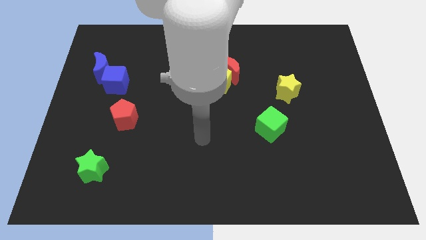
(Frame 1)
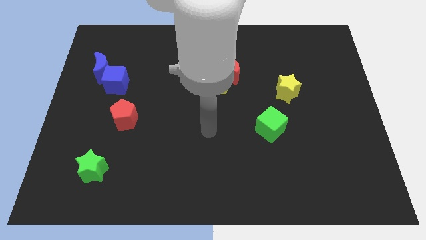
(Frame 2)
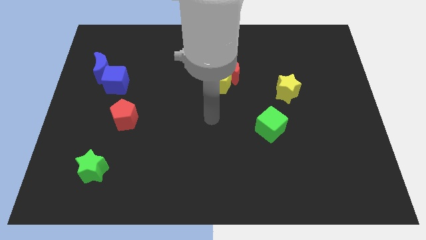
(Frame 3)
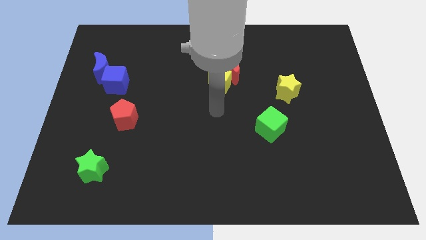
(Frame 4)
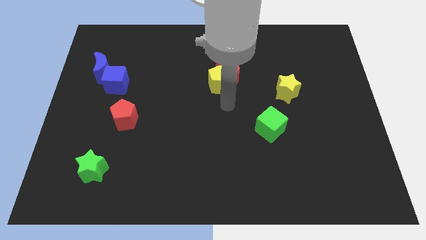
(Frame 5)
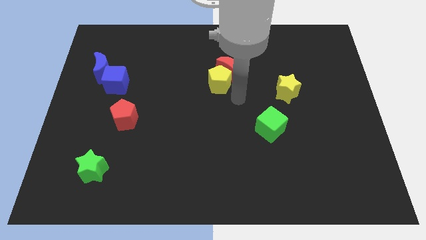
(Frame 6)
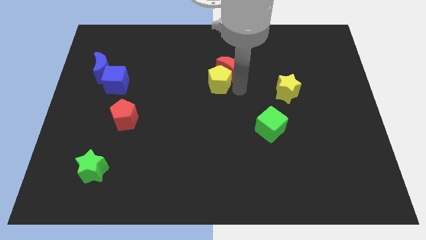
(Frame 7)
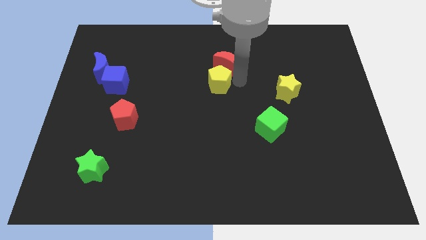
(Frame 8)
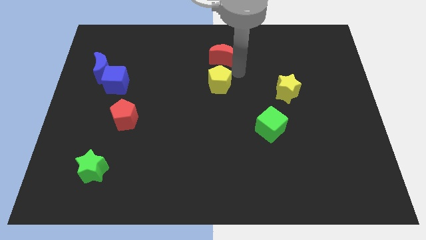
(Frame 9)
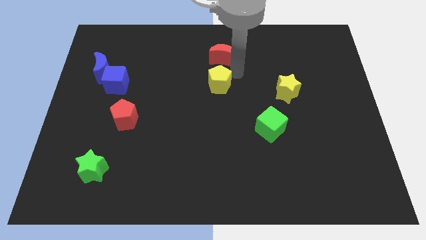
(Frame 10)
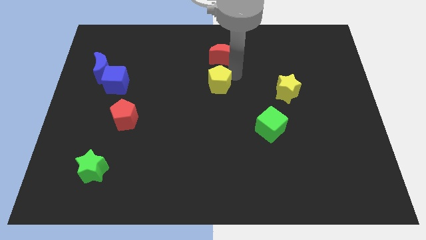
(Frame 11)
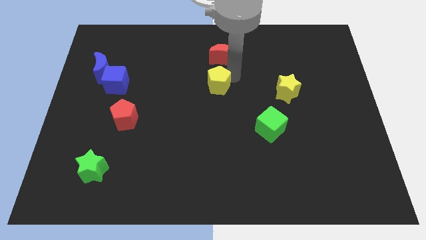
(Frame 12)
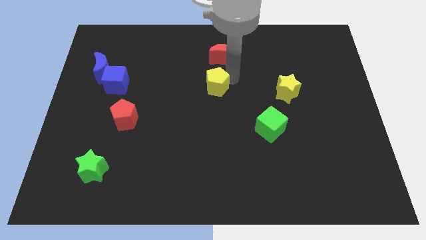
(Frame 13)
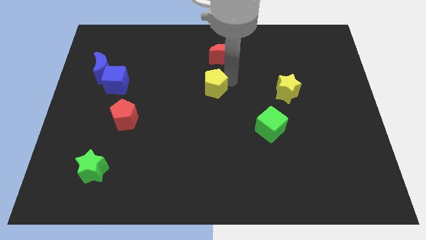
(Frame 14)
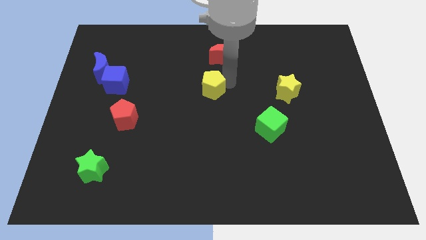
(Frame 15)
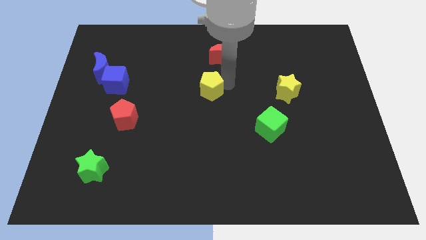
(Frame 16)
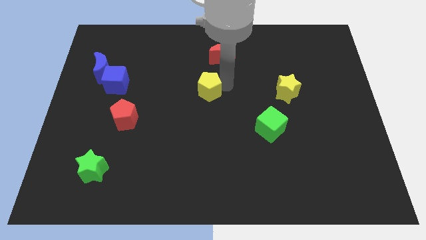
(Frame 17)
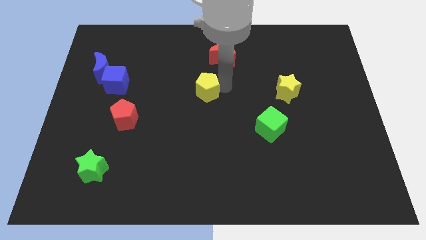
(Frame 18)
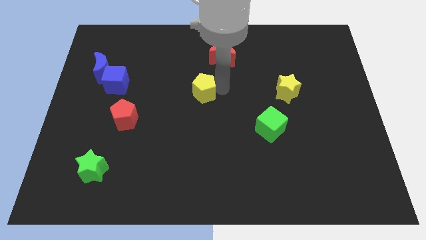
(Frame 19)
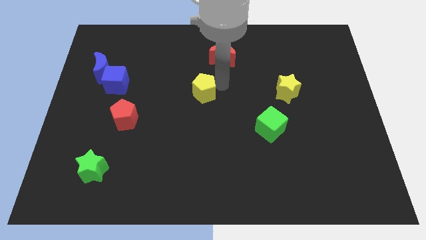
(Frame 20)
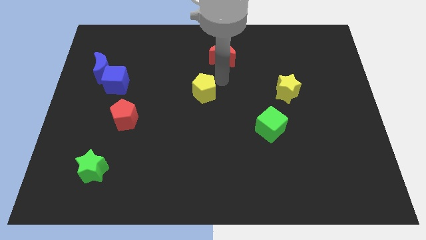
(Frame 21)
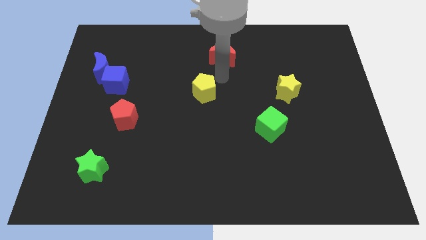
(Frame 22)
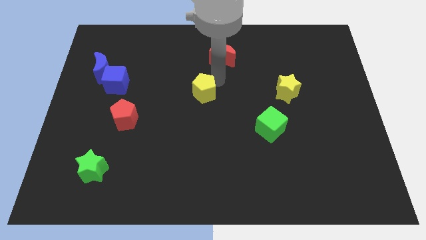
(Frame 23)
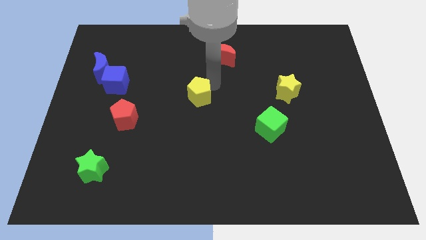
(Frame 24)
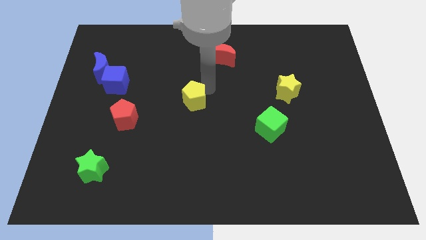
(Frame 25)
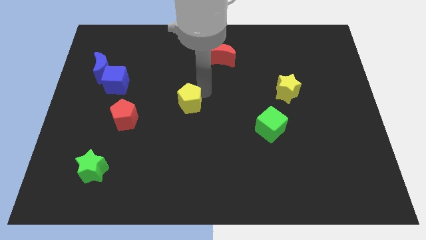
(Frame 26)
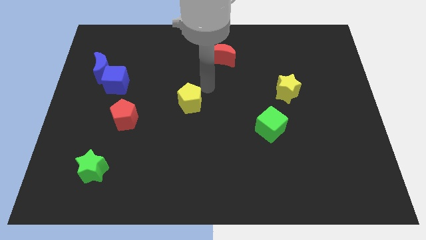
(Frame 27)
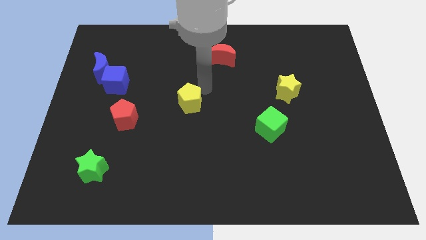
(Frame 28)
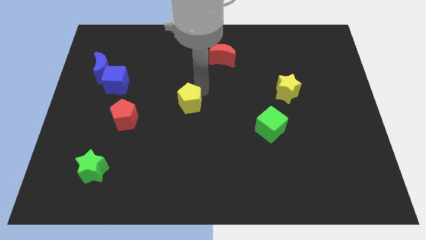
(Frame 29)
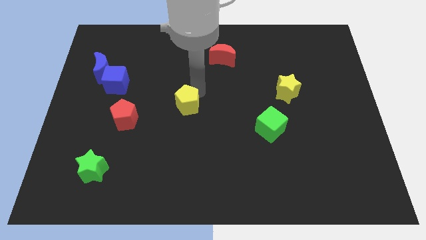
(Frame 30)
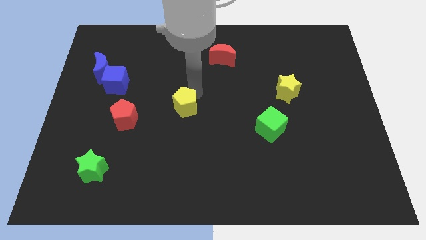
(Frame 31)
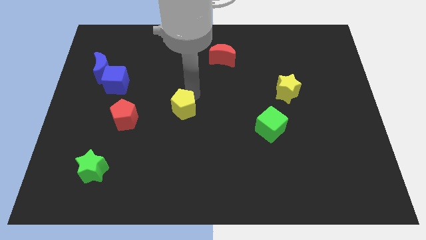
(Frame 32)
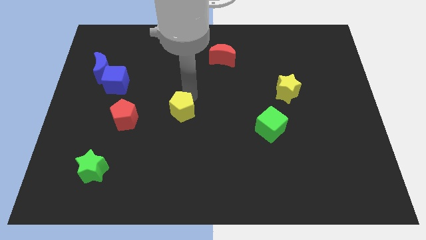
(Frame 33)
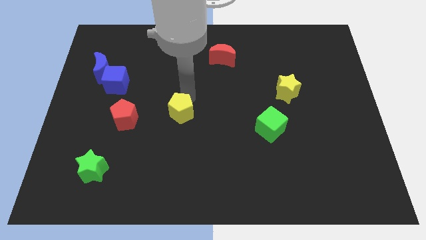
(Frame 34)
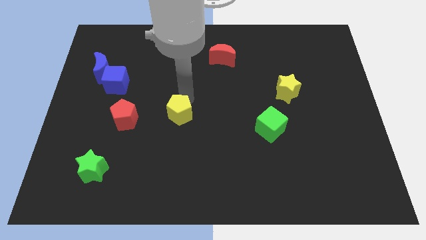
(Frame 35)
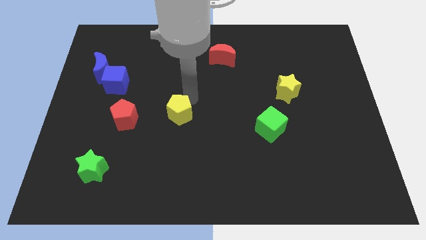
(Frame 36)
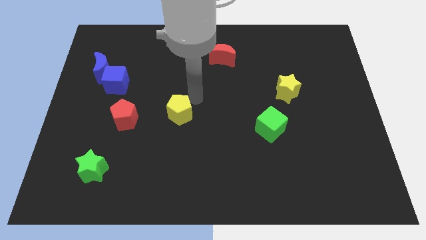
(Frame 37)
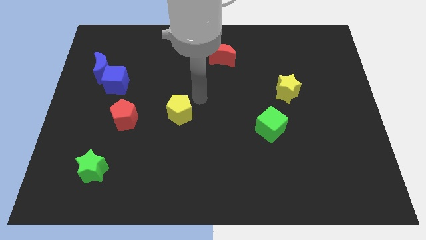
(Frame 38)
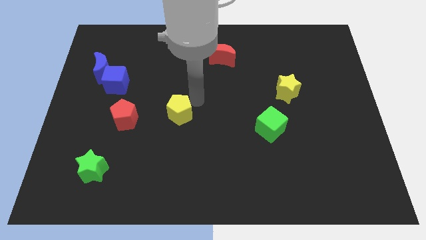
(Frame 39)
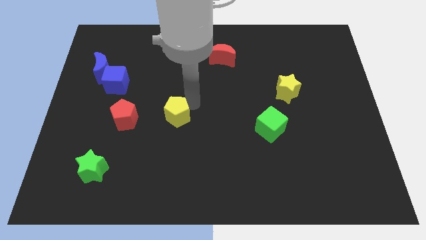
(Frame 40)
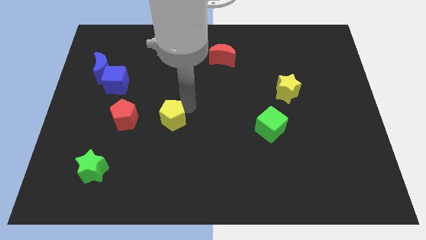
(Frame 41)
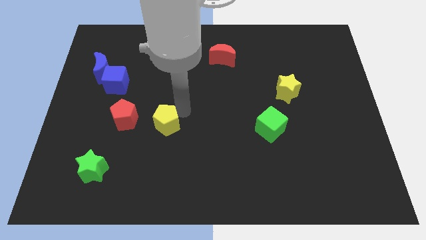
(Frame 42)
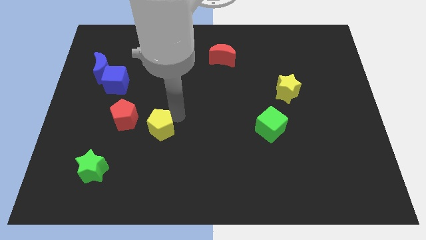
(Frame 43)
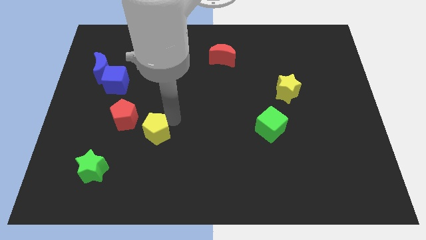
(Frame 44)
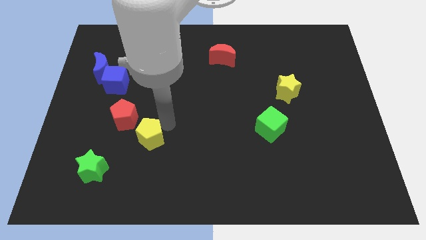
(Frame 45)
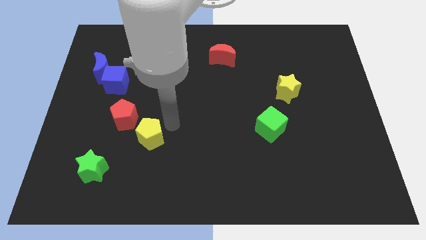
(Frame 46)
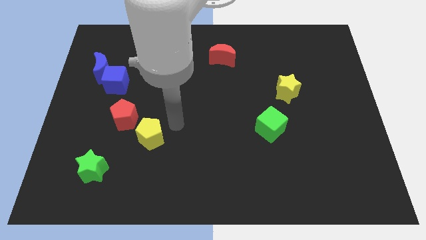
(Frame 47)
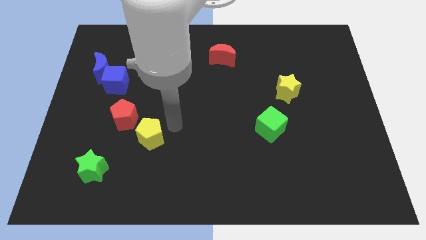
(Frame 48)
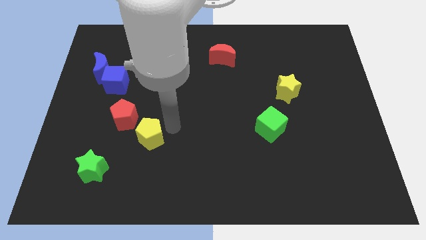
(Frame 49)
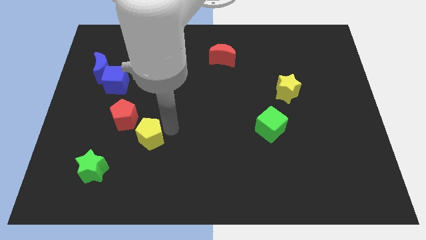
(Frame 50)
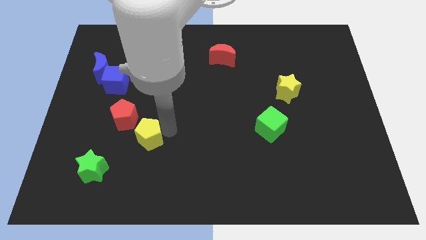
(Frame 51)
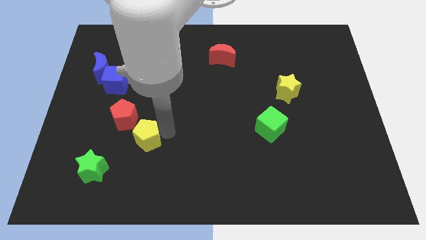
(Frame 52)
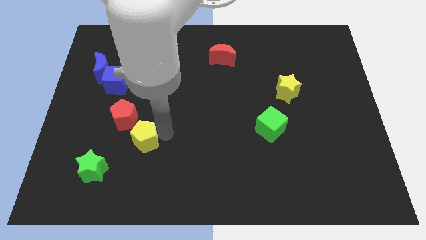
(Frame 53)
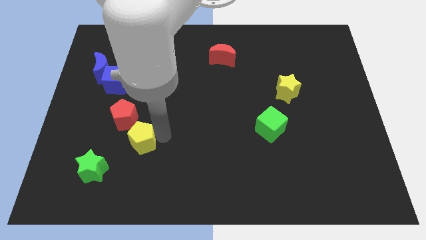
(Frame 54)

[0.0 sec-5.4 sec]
move the yellow pentagon to the bottom of the red pentagon

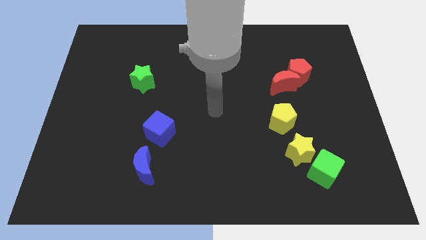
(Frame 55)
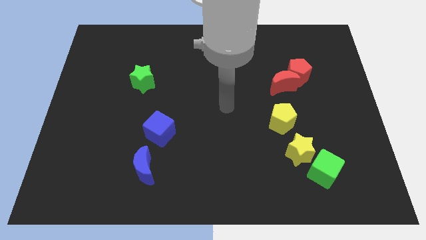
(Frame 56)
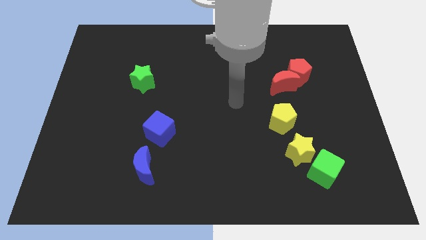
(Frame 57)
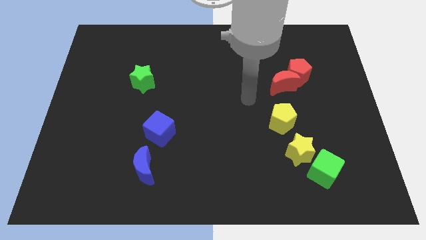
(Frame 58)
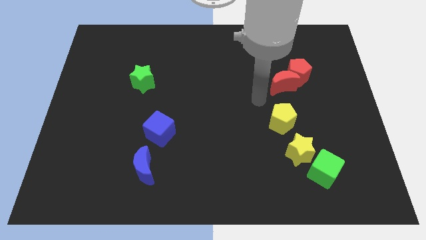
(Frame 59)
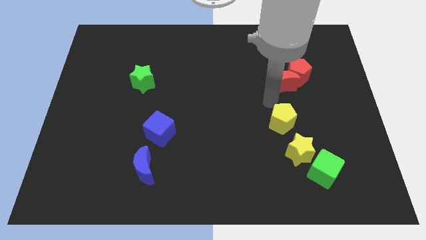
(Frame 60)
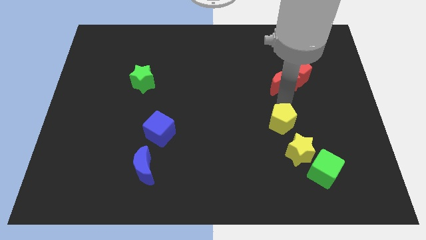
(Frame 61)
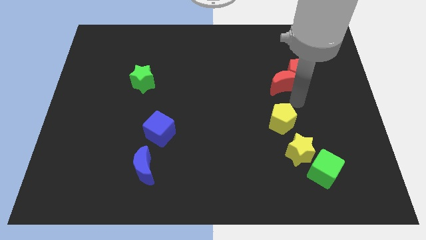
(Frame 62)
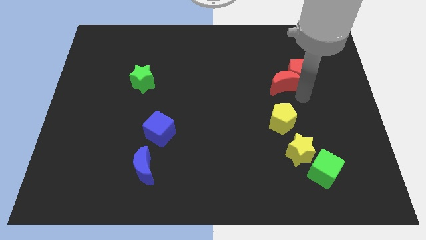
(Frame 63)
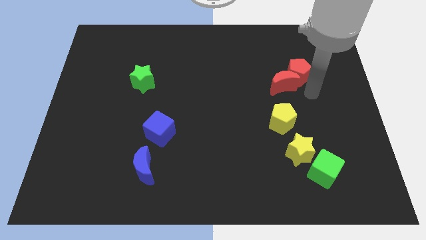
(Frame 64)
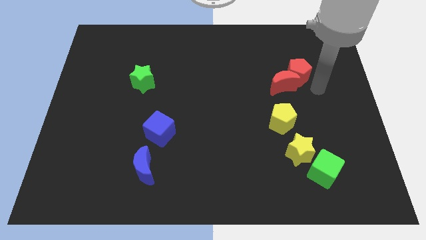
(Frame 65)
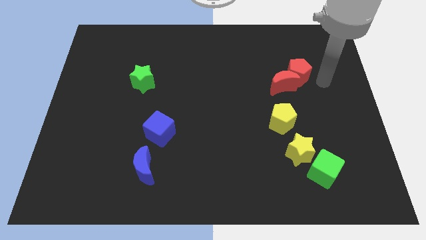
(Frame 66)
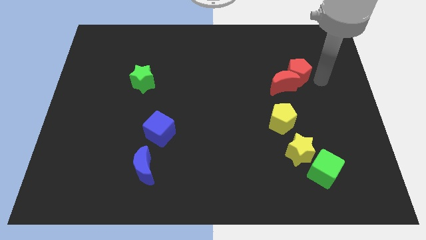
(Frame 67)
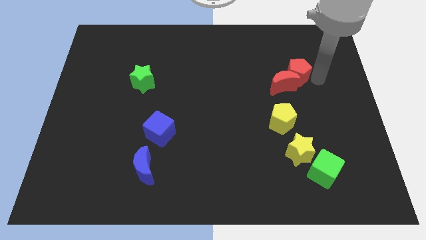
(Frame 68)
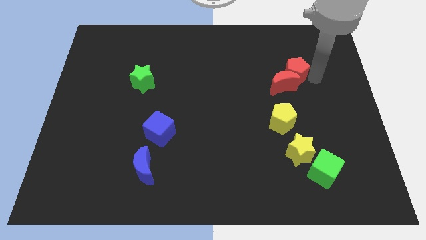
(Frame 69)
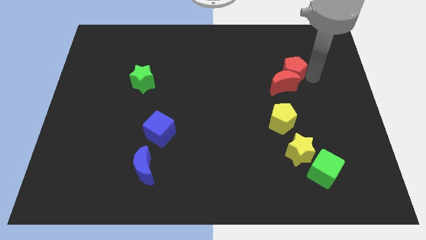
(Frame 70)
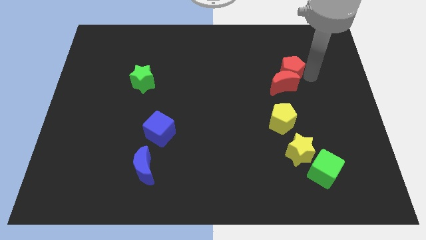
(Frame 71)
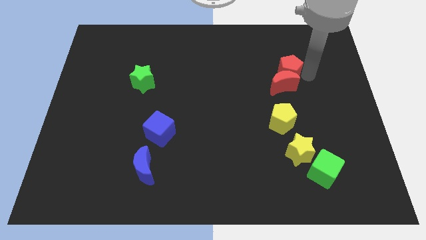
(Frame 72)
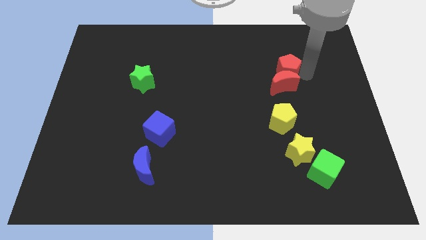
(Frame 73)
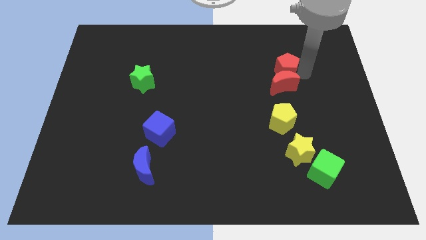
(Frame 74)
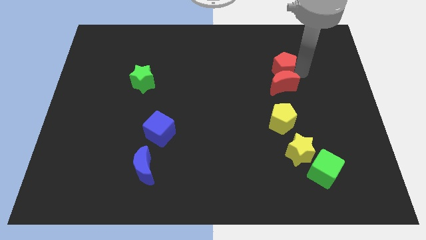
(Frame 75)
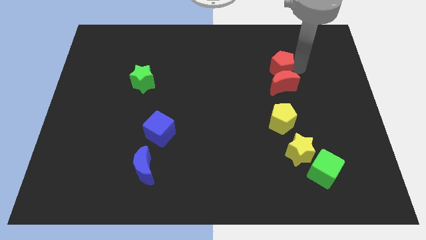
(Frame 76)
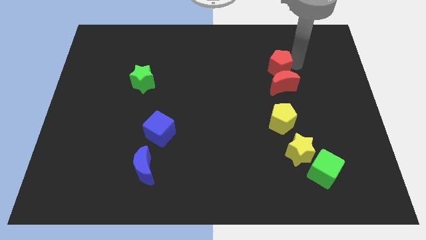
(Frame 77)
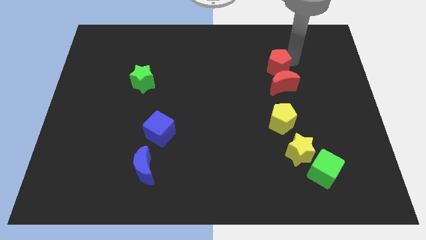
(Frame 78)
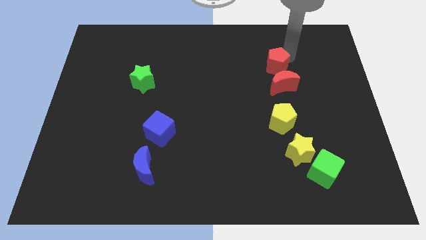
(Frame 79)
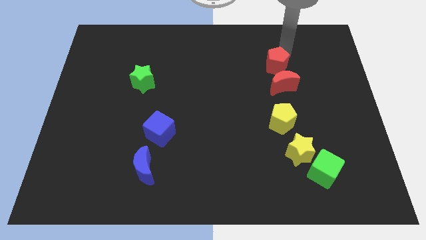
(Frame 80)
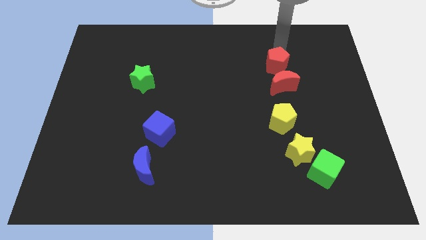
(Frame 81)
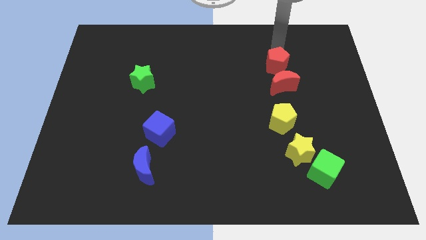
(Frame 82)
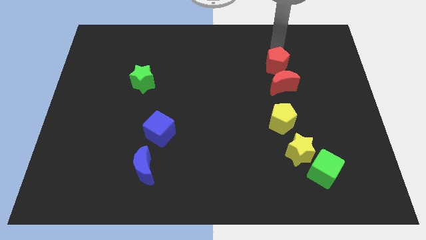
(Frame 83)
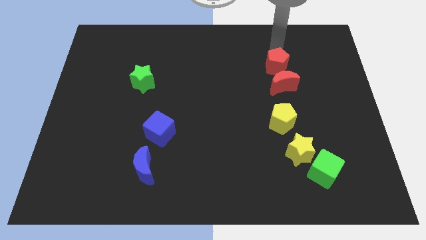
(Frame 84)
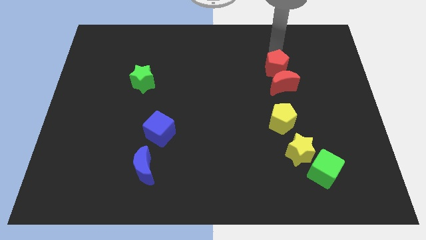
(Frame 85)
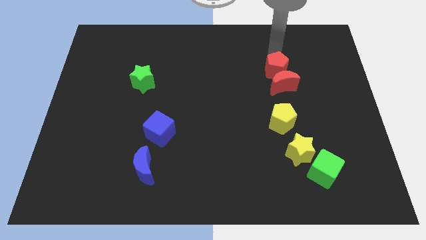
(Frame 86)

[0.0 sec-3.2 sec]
slide the red pentagon to the top of the yellow pentagon
